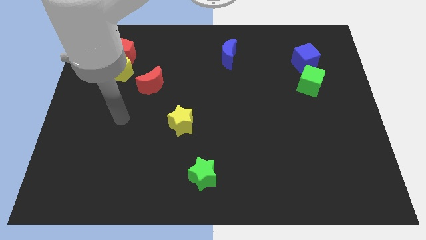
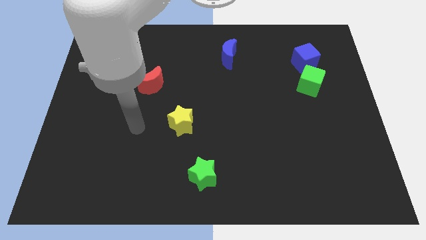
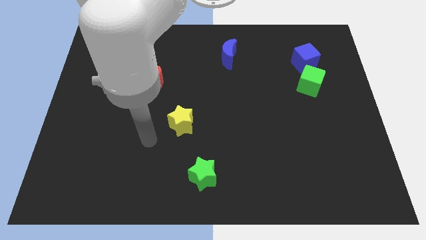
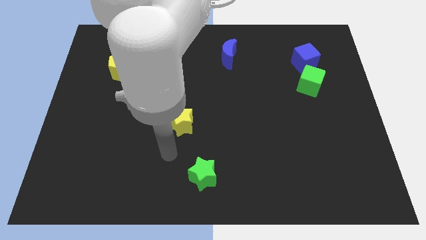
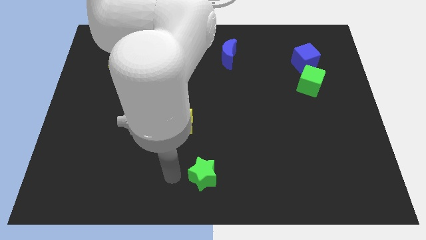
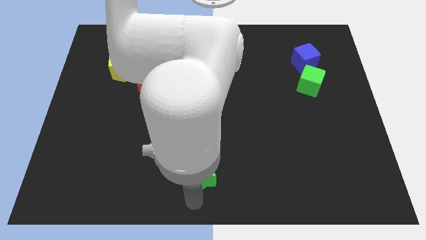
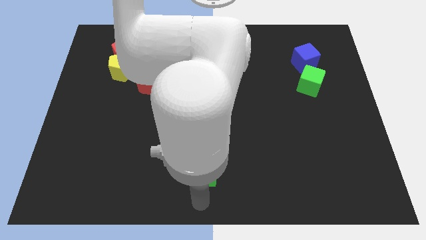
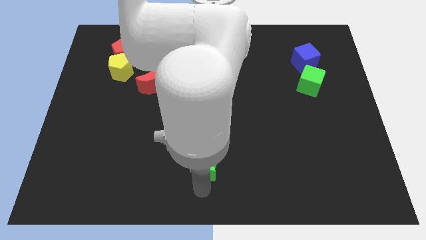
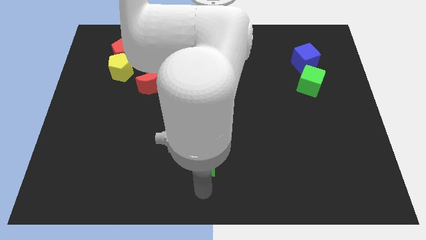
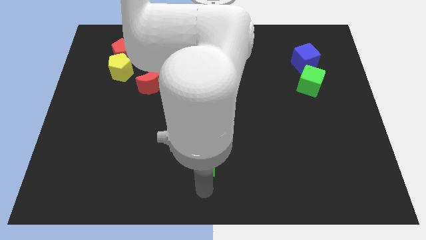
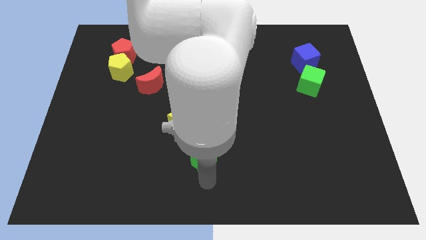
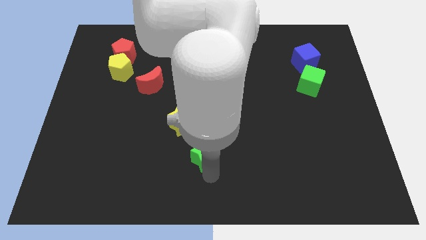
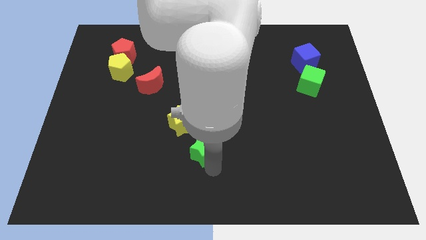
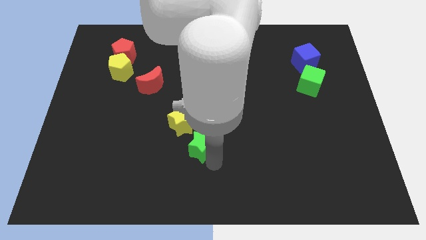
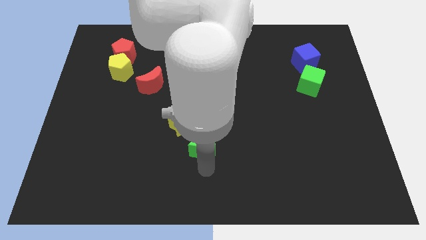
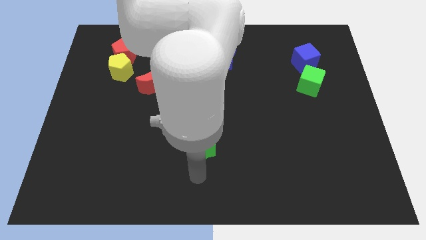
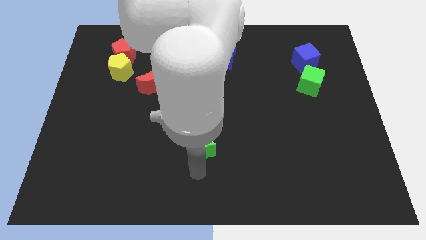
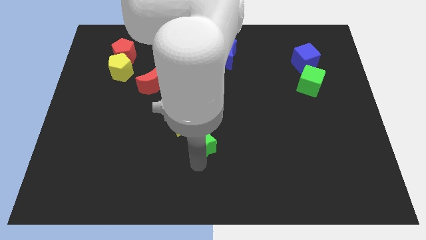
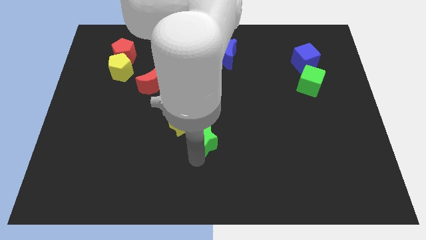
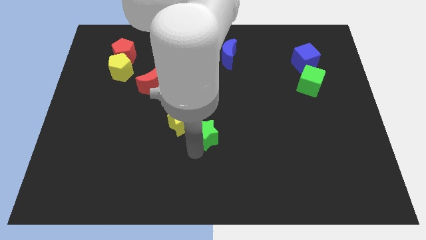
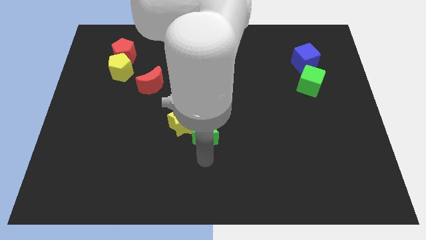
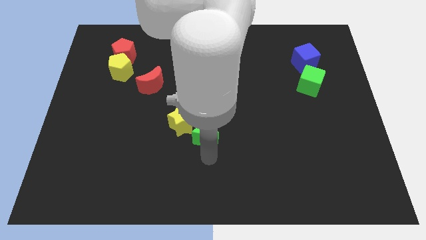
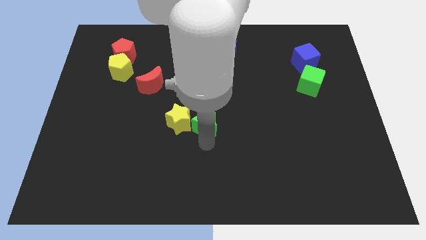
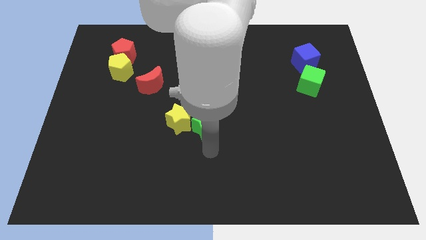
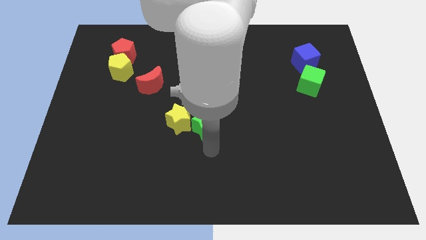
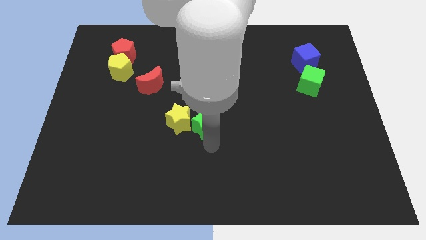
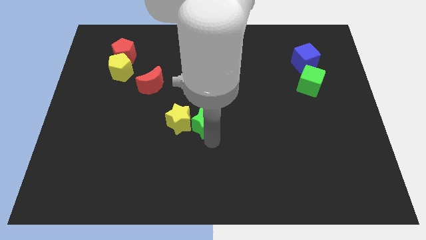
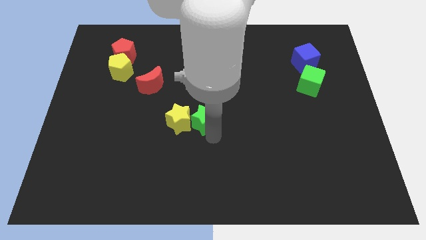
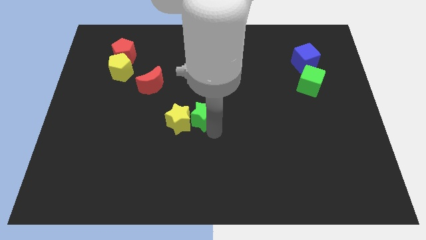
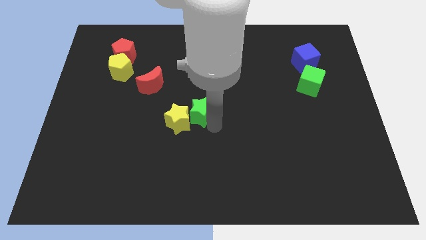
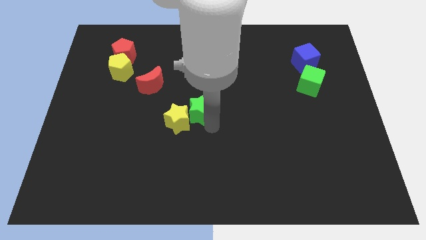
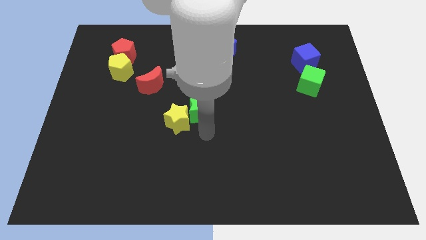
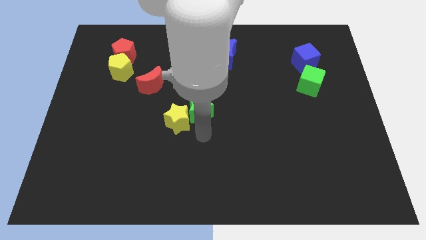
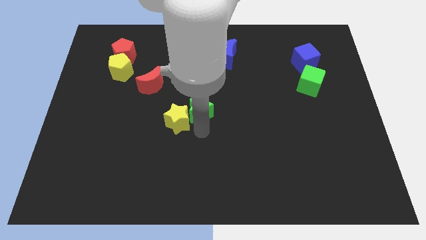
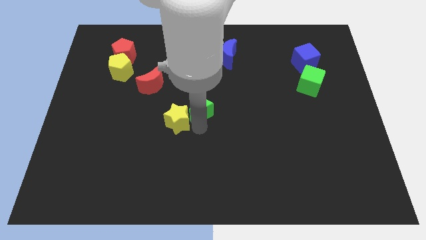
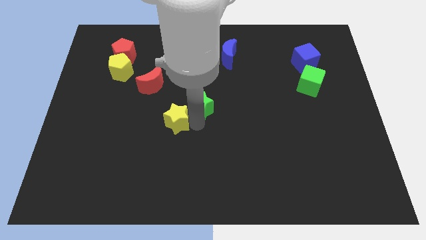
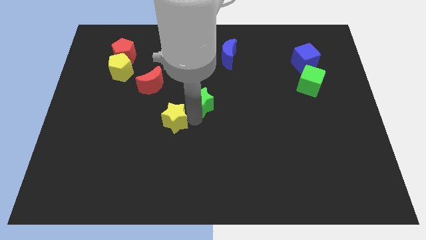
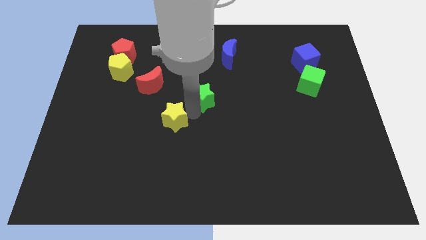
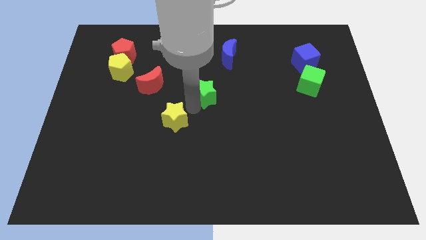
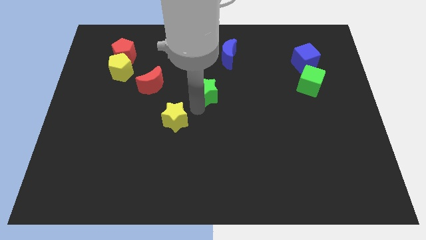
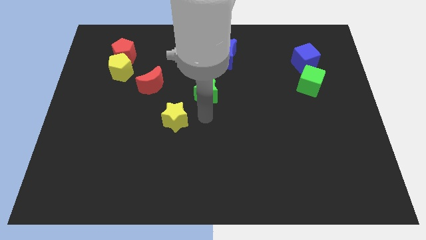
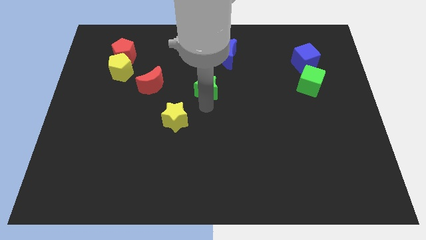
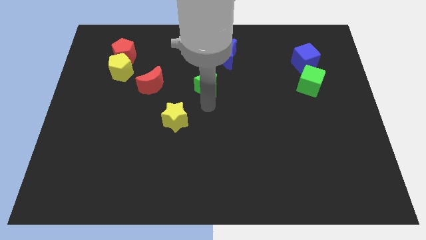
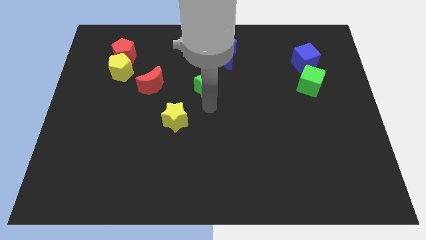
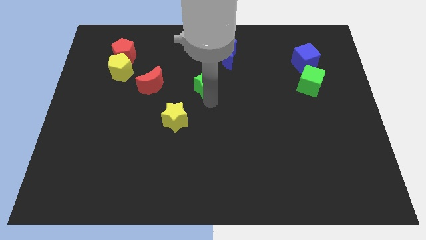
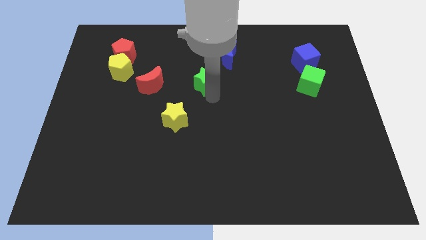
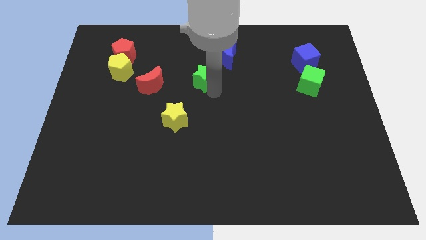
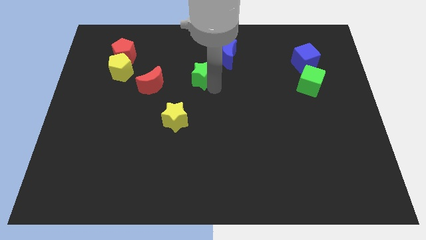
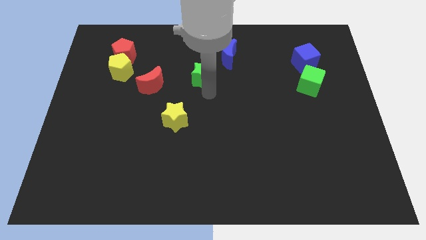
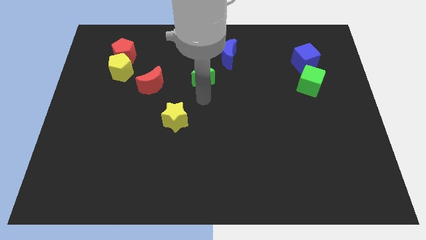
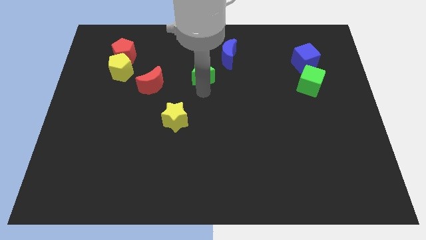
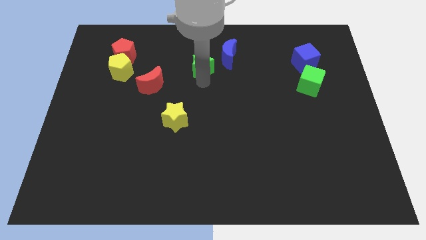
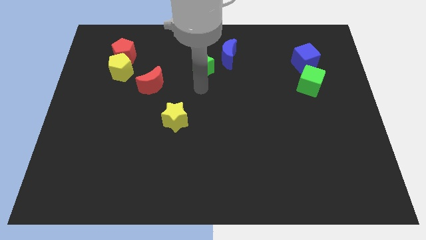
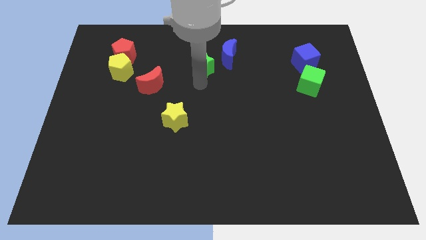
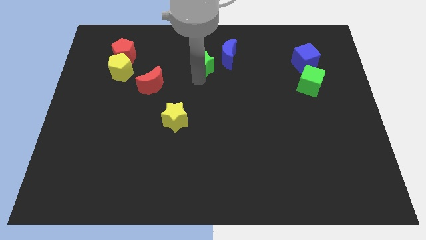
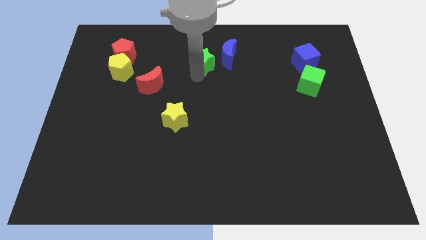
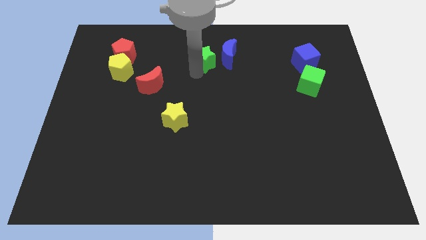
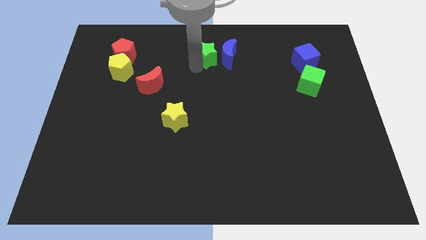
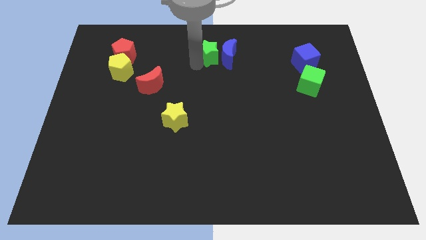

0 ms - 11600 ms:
push the green star to the top side

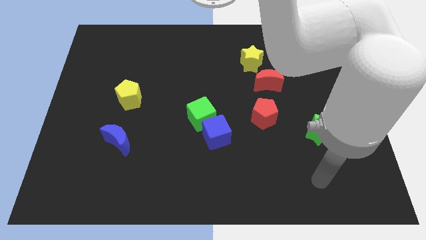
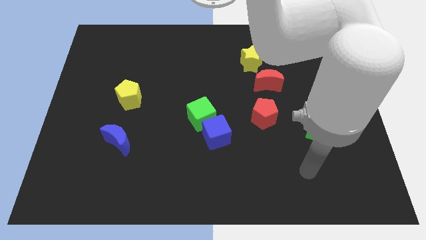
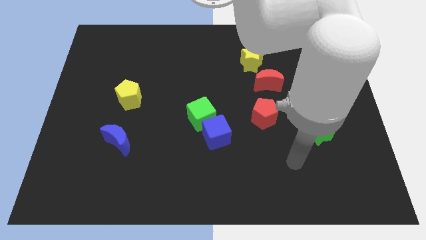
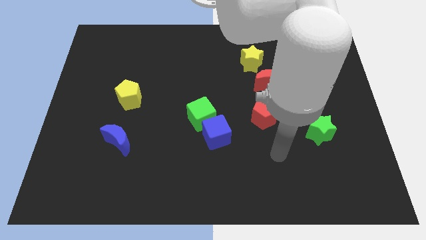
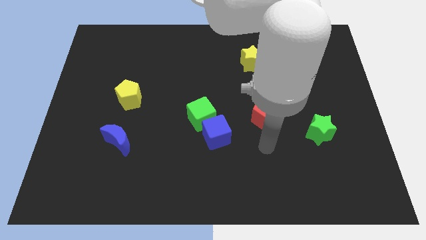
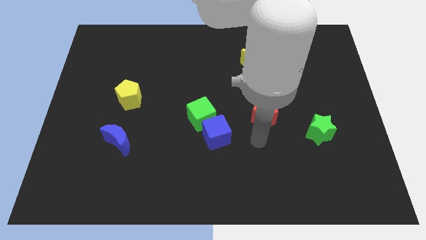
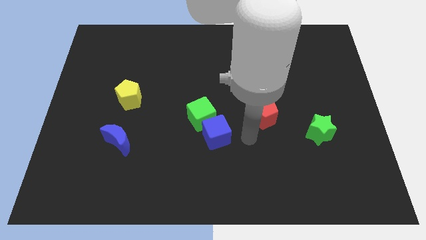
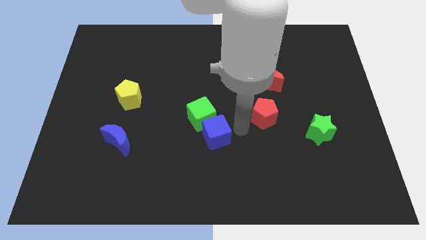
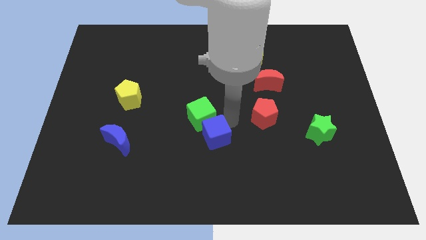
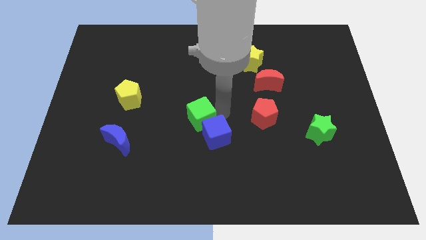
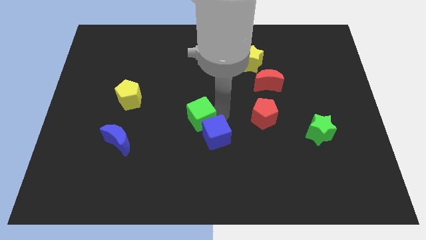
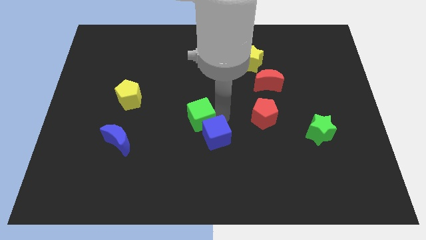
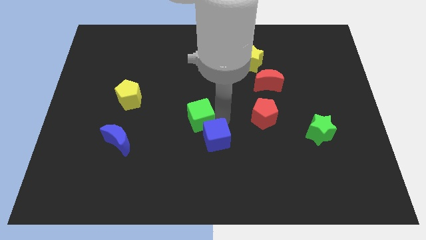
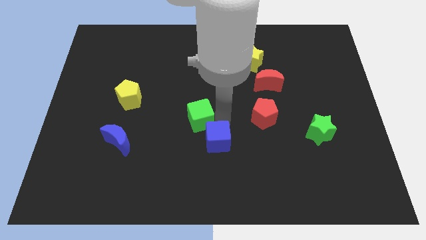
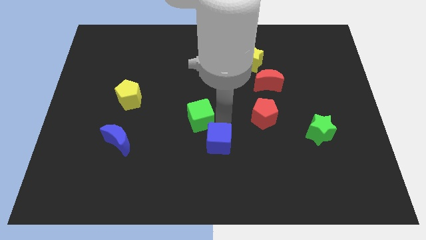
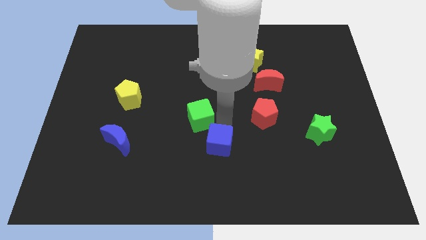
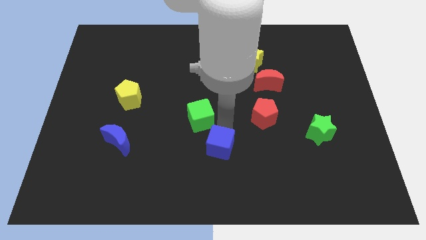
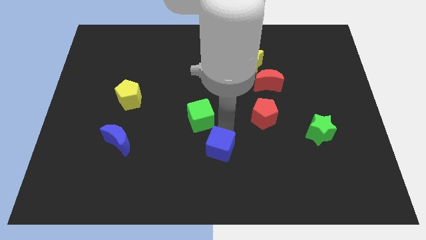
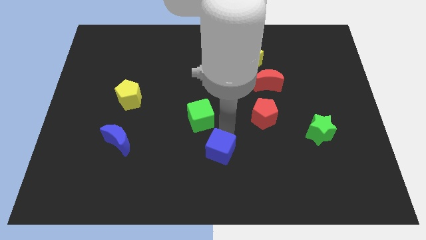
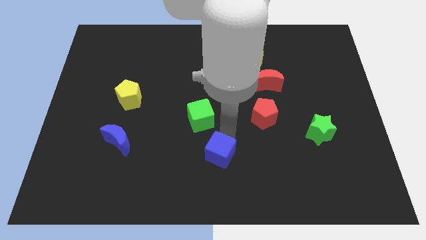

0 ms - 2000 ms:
move the blue cube to the bottom side
